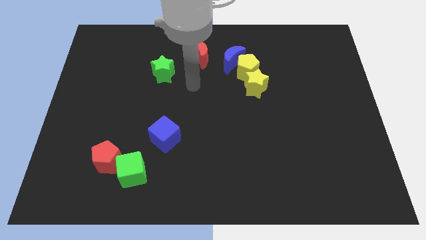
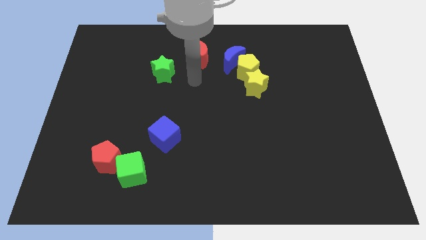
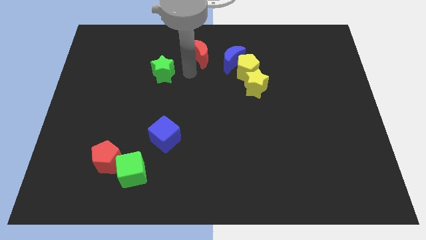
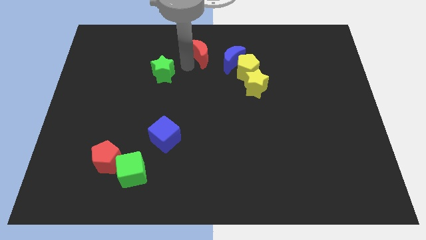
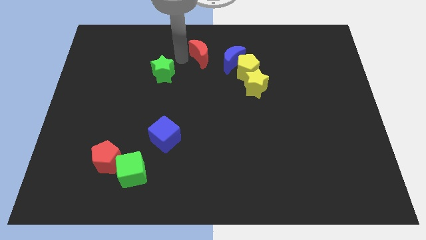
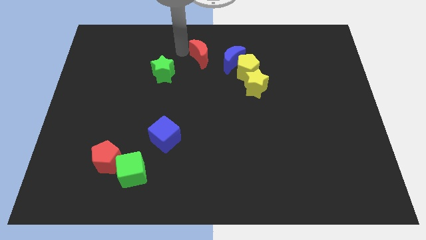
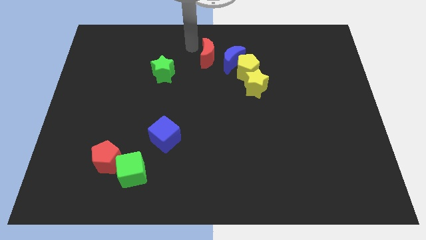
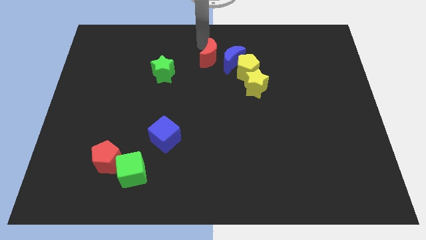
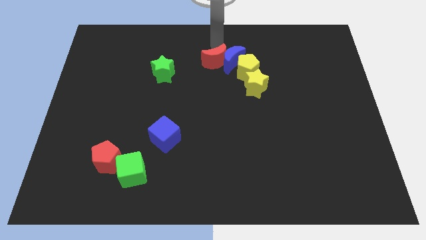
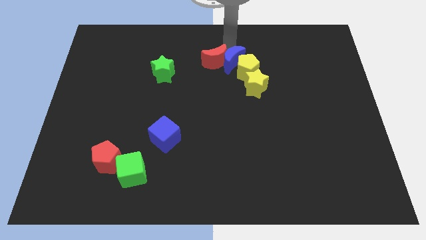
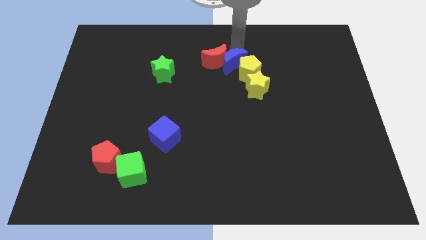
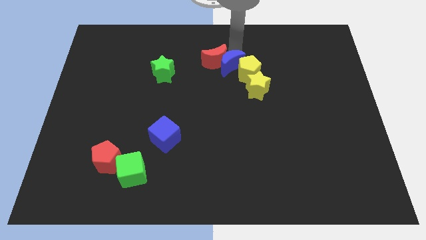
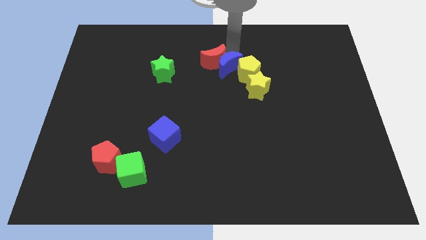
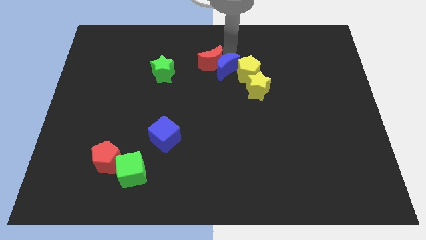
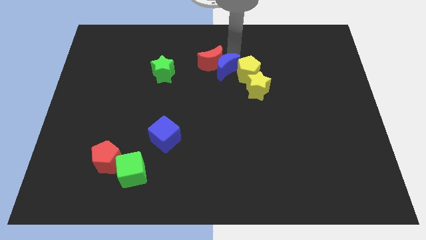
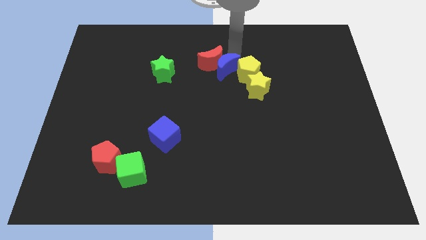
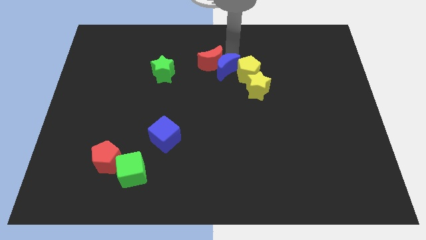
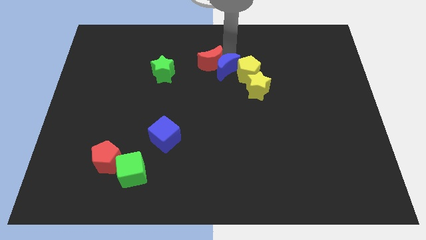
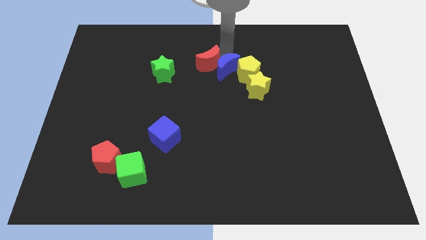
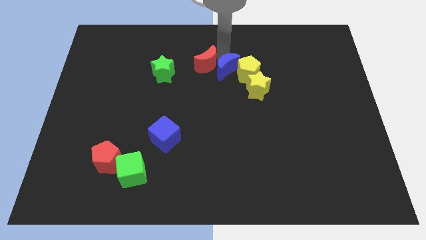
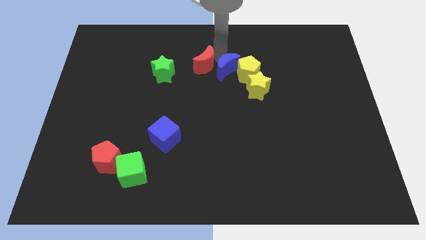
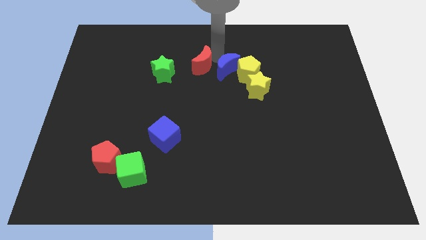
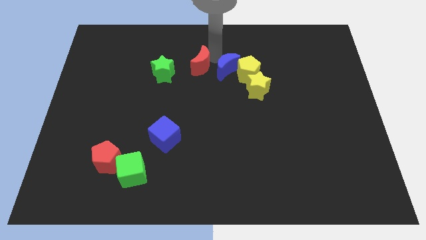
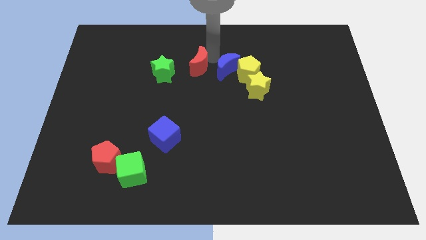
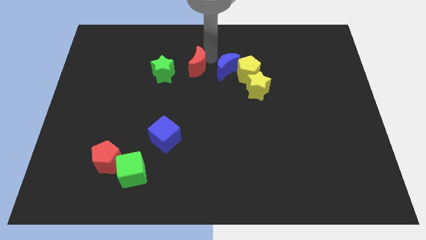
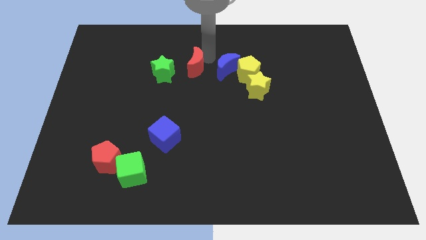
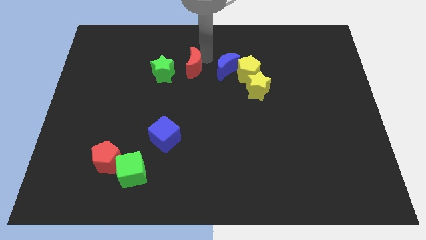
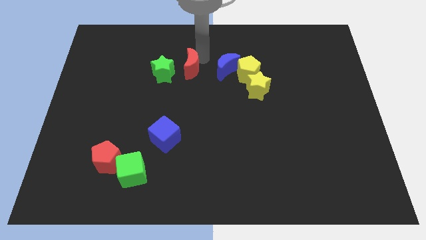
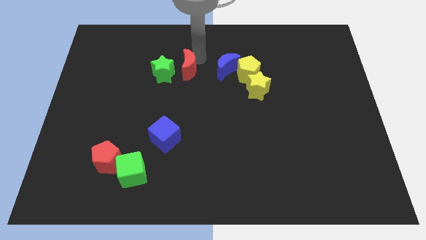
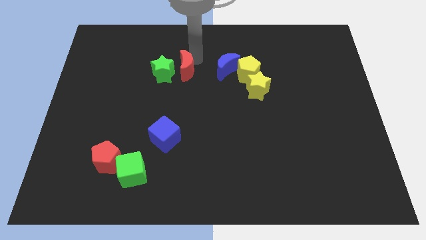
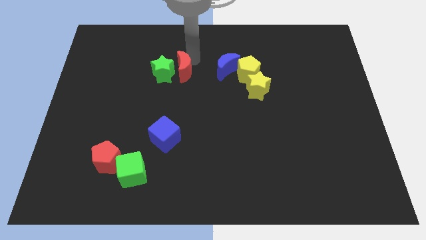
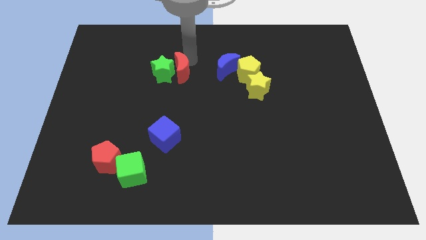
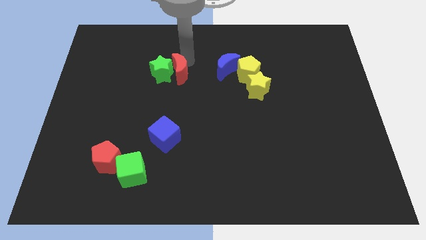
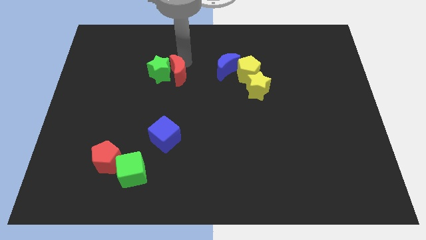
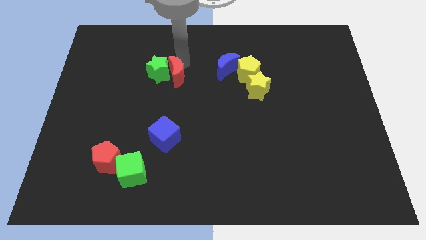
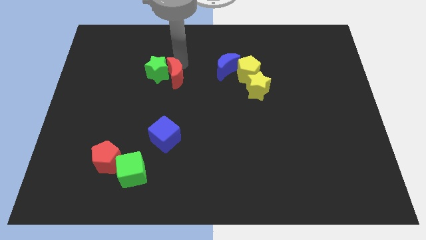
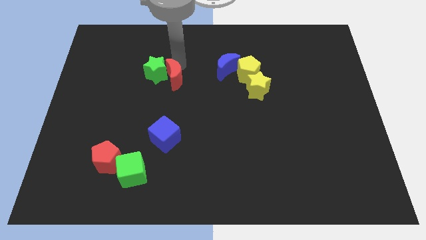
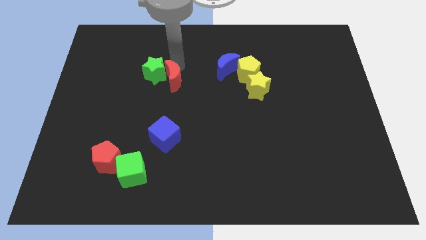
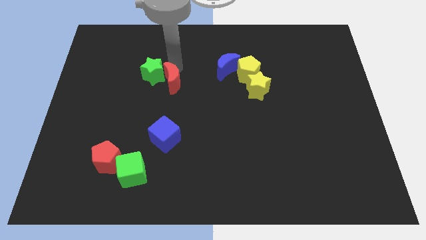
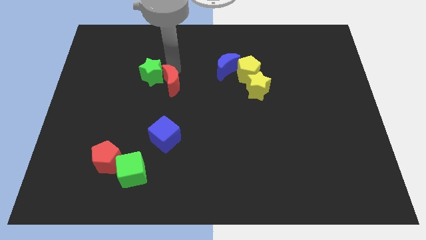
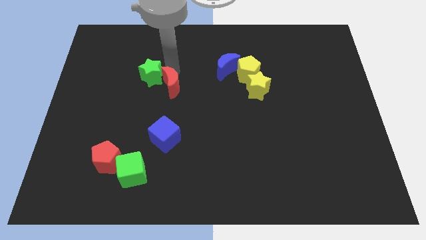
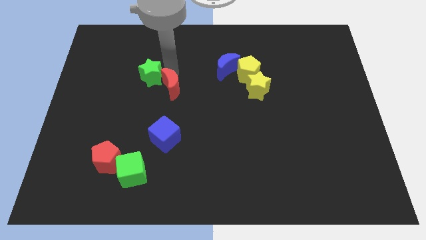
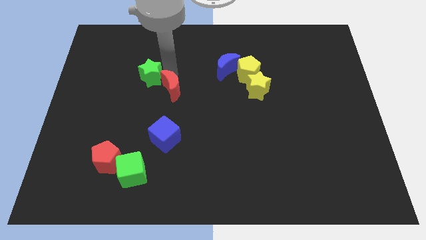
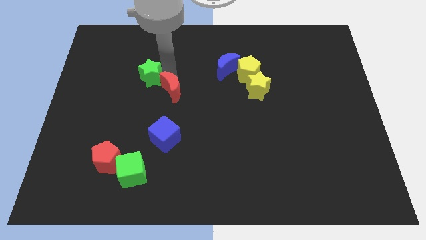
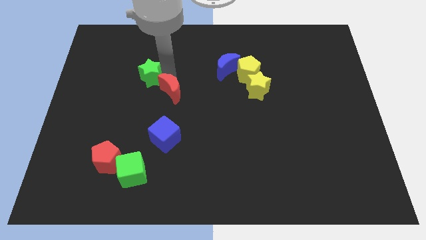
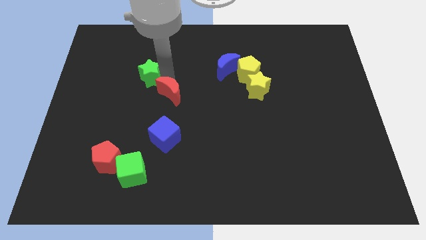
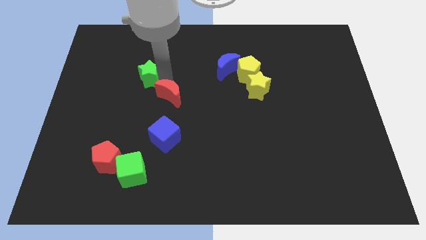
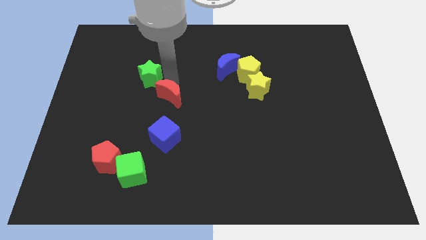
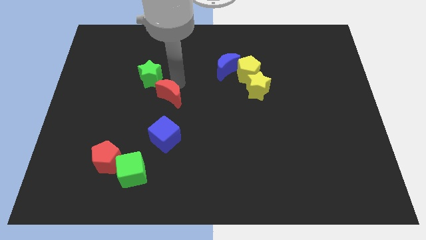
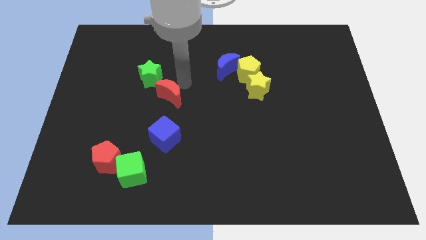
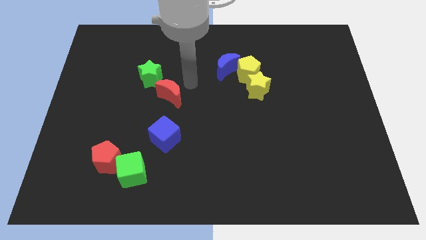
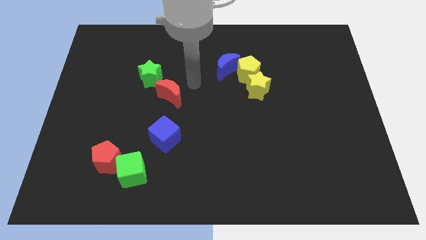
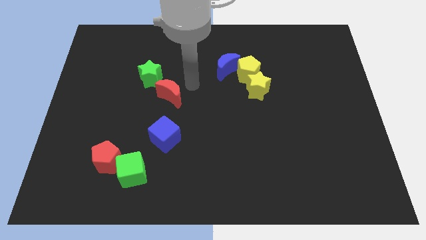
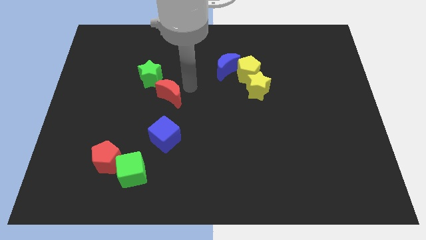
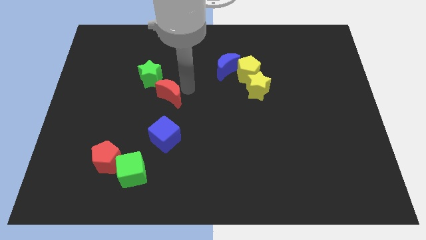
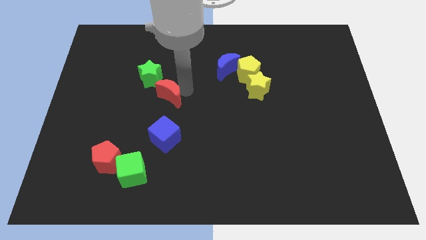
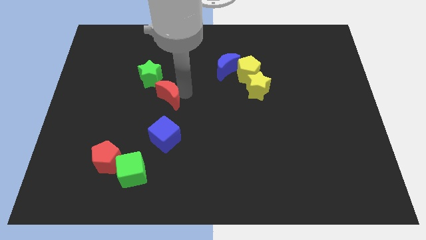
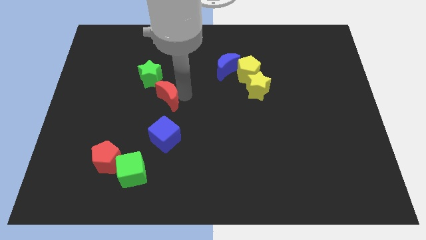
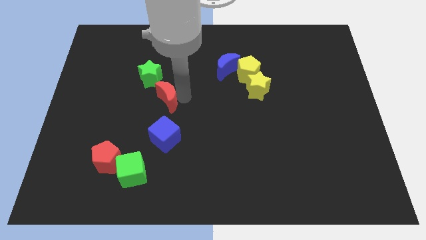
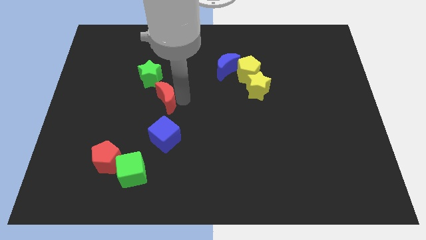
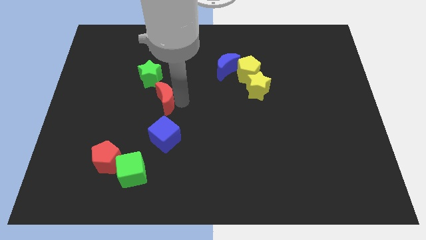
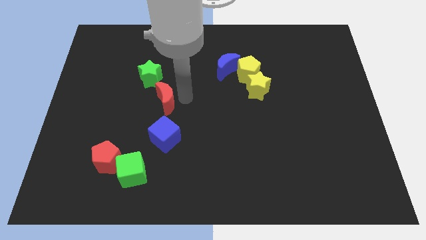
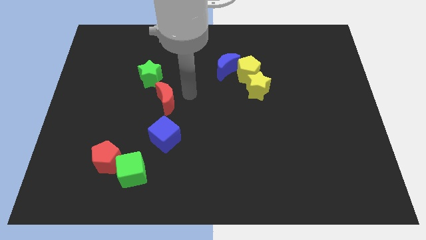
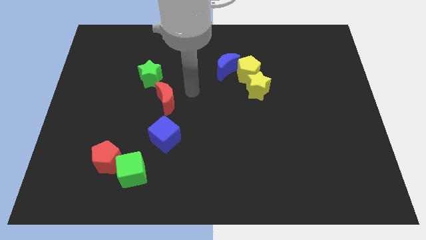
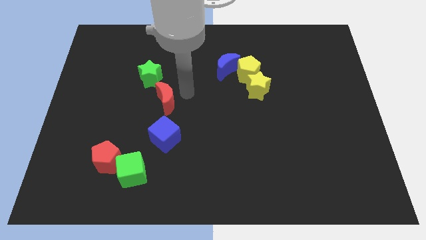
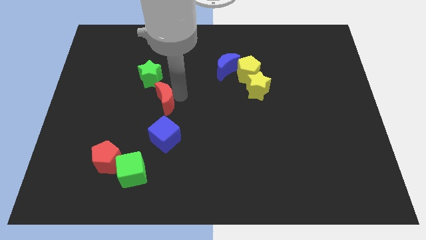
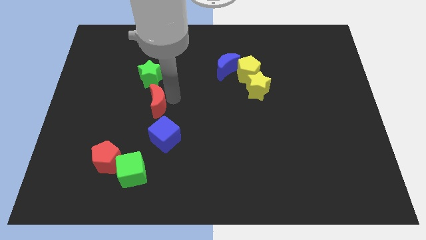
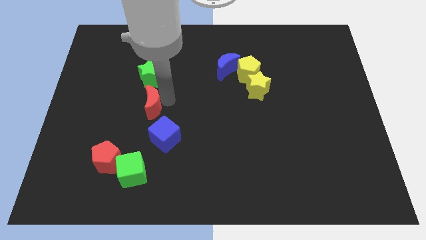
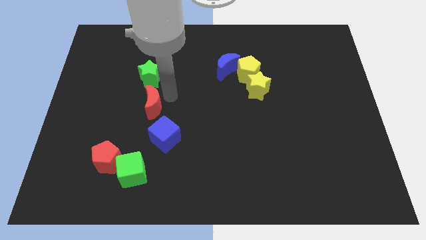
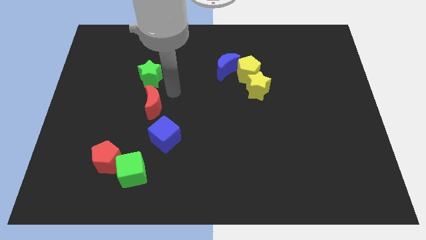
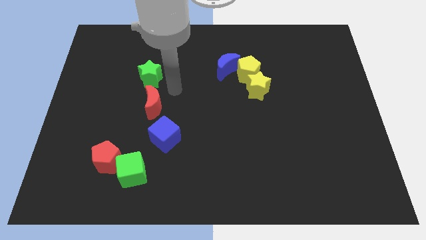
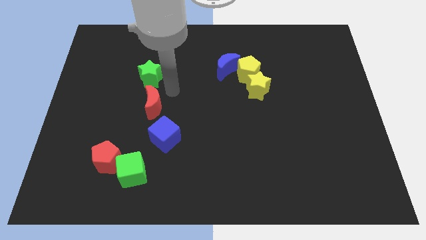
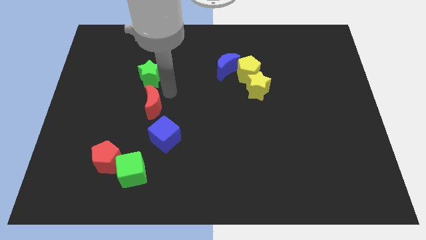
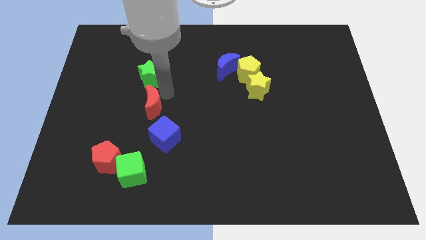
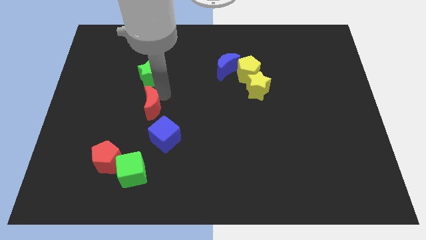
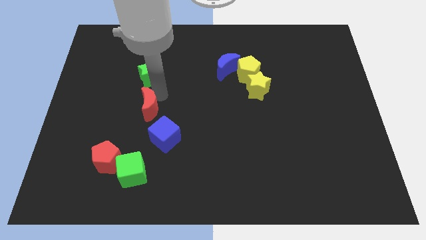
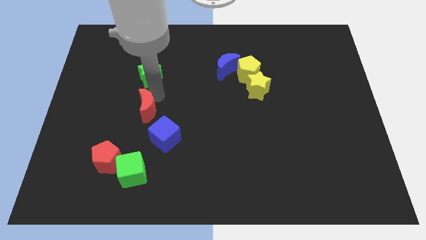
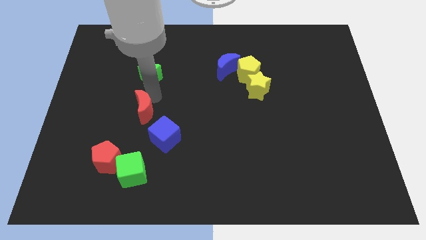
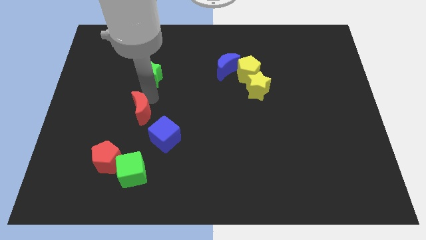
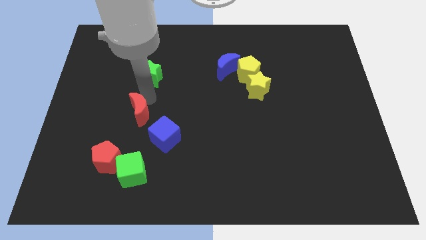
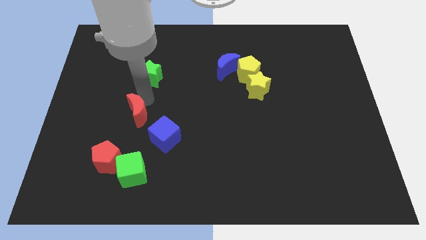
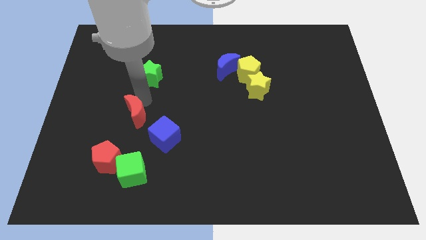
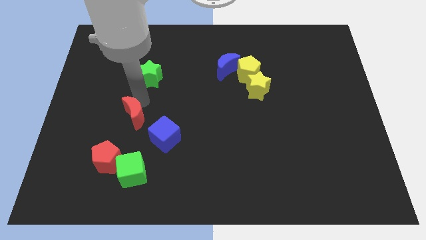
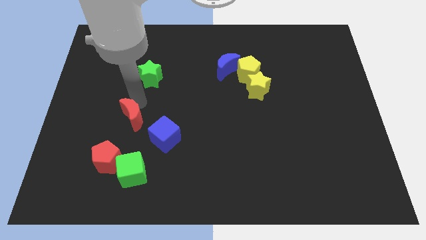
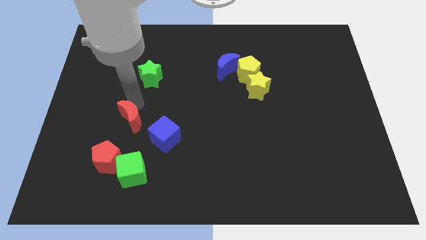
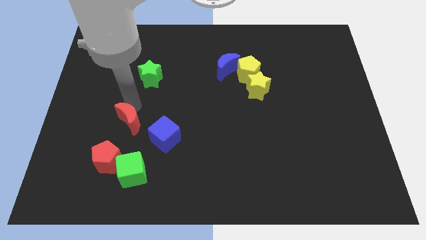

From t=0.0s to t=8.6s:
push the red moon to the left of the blue cube
